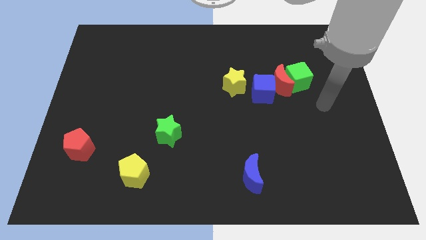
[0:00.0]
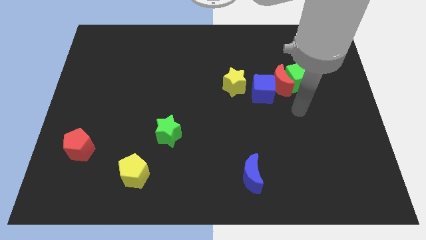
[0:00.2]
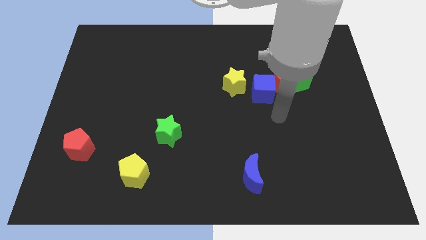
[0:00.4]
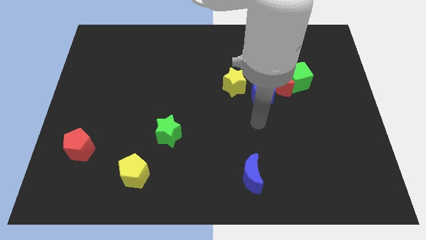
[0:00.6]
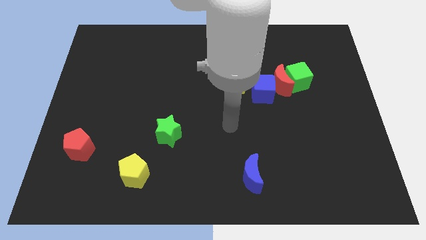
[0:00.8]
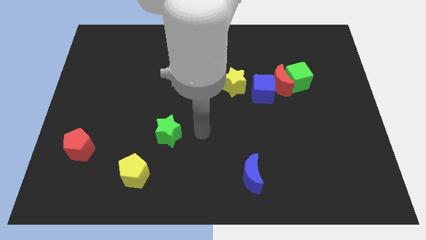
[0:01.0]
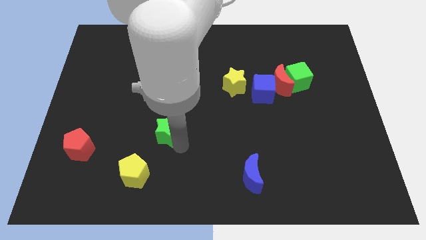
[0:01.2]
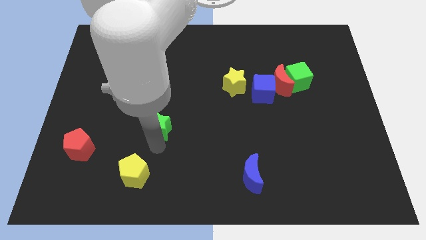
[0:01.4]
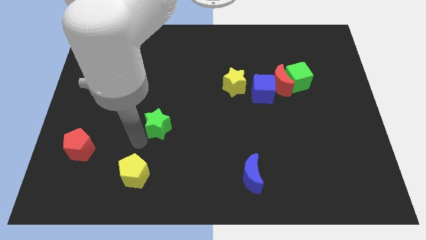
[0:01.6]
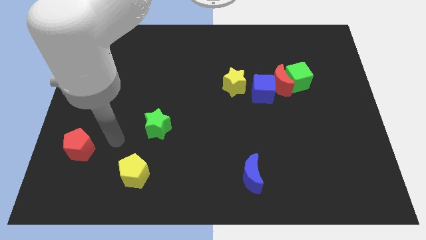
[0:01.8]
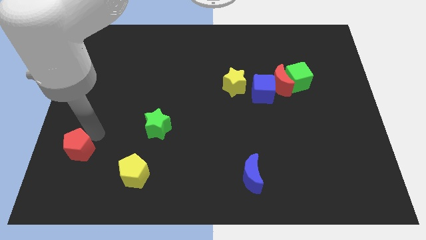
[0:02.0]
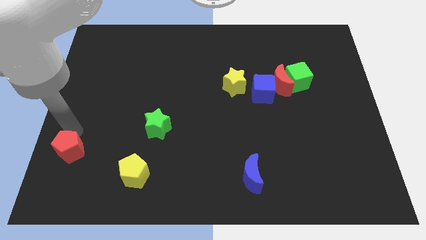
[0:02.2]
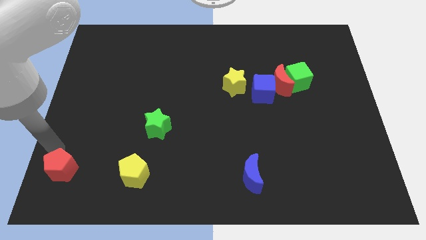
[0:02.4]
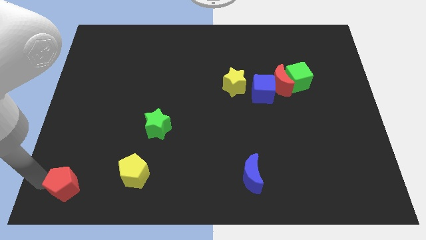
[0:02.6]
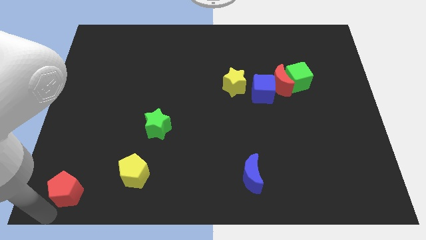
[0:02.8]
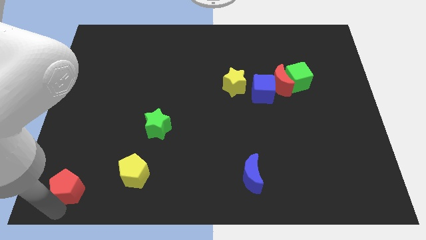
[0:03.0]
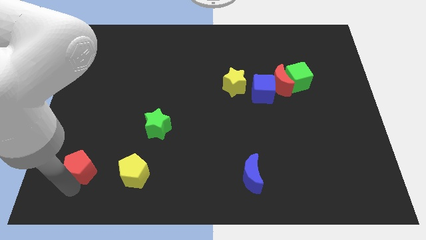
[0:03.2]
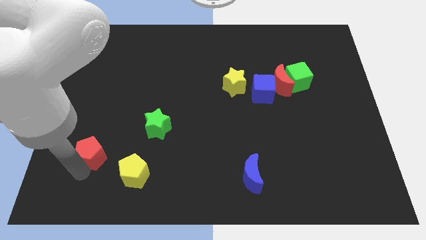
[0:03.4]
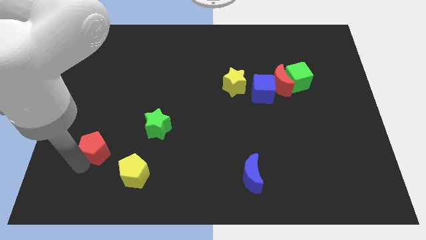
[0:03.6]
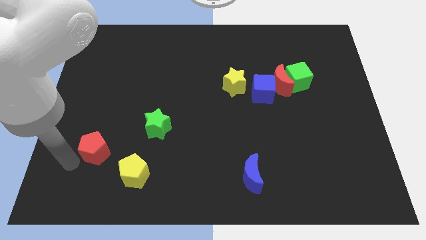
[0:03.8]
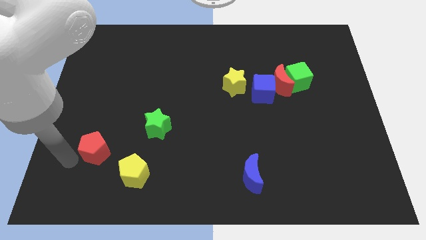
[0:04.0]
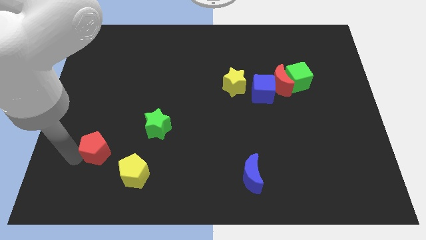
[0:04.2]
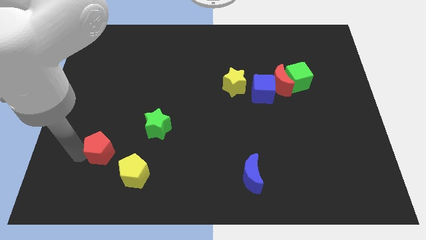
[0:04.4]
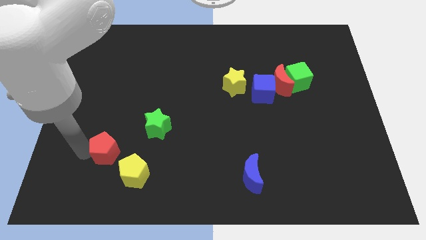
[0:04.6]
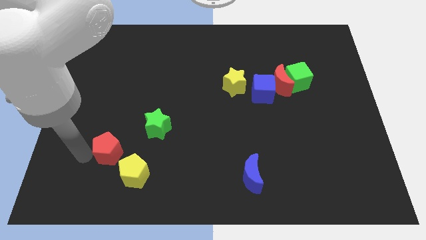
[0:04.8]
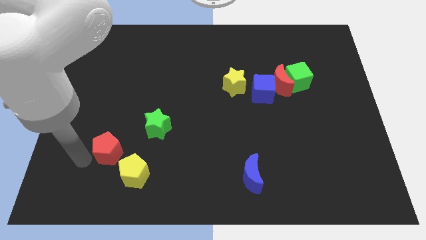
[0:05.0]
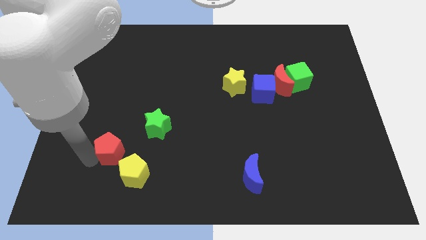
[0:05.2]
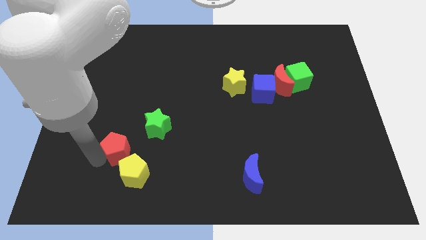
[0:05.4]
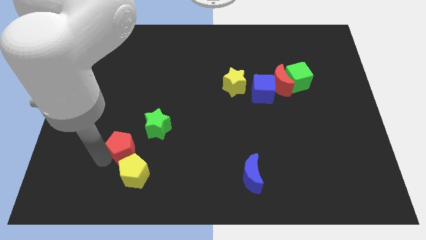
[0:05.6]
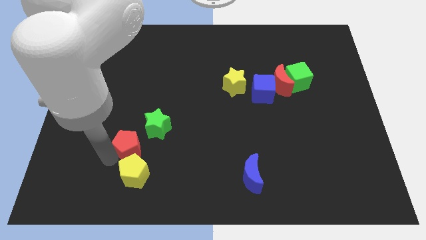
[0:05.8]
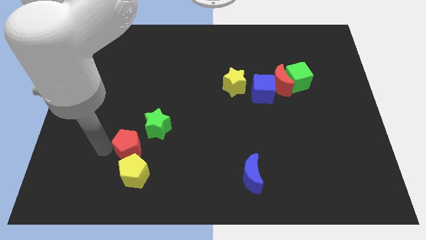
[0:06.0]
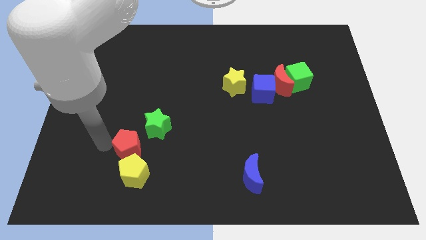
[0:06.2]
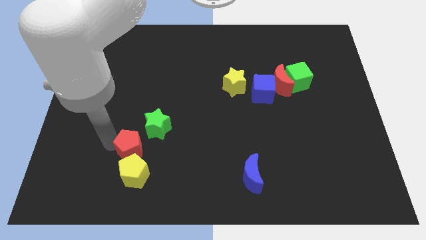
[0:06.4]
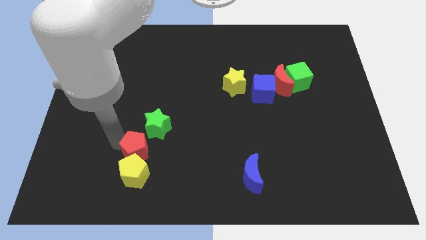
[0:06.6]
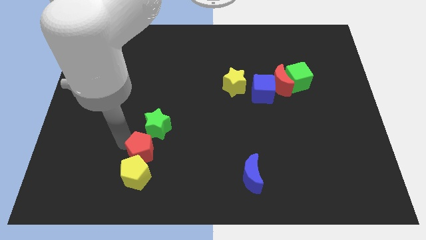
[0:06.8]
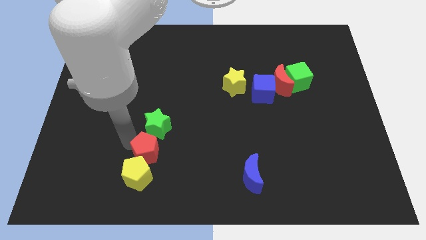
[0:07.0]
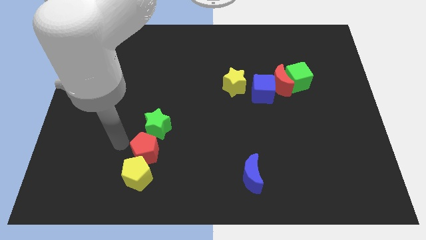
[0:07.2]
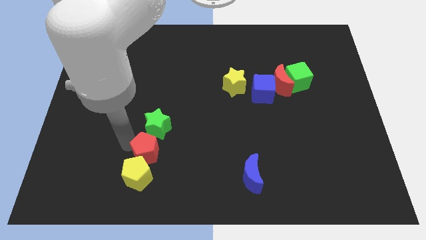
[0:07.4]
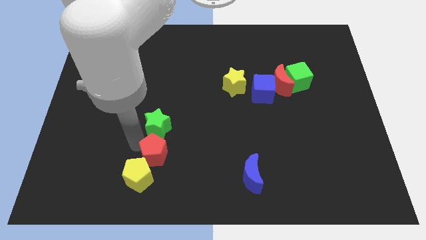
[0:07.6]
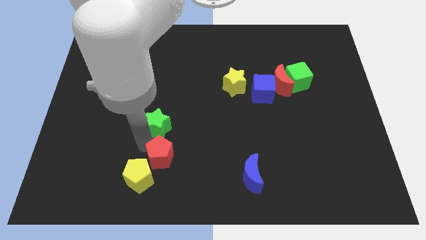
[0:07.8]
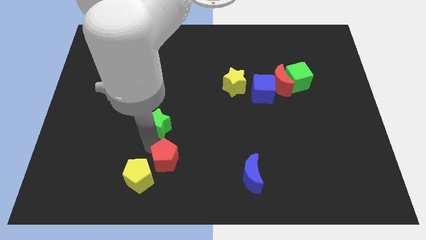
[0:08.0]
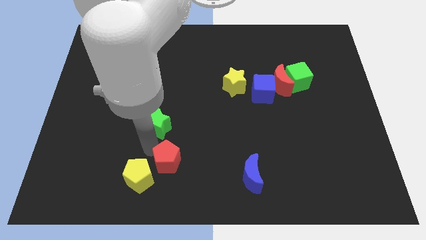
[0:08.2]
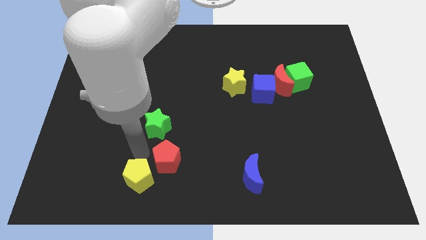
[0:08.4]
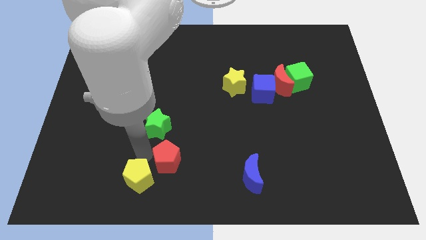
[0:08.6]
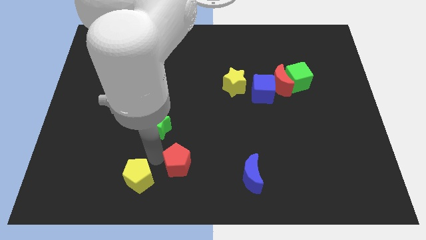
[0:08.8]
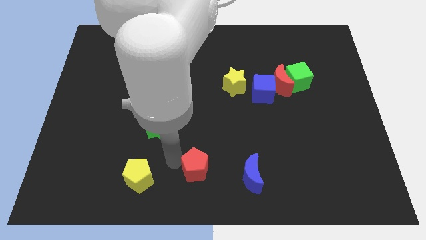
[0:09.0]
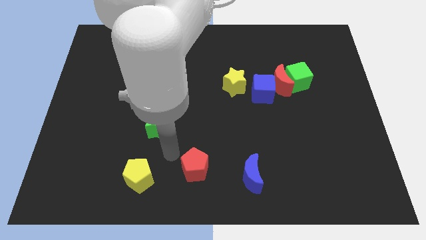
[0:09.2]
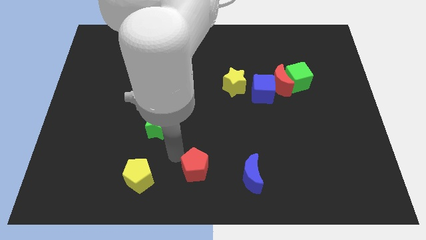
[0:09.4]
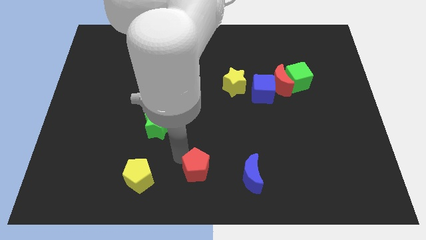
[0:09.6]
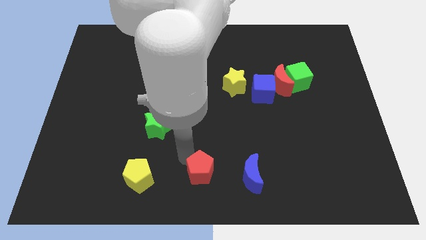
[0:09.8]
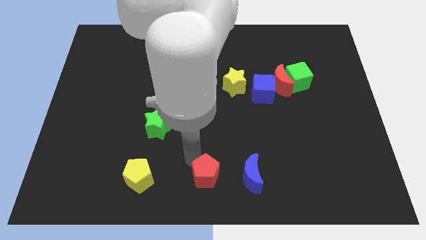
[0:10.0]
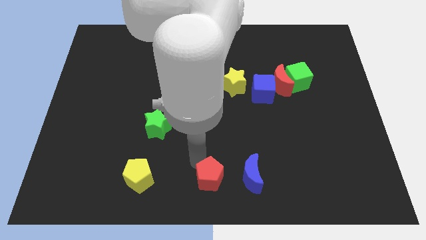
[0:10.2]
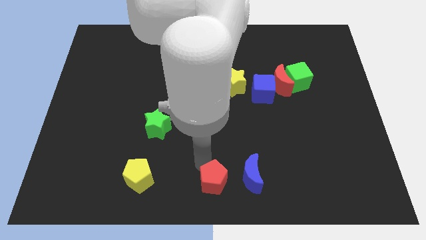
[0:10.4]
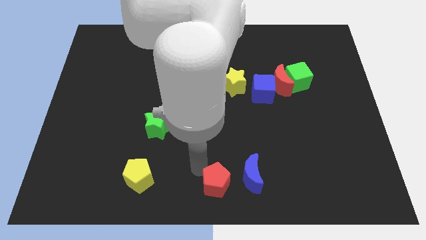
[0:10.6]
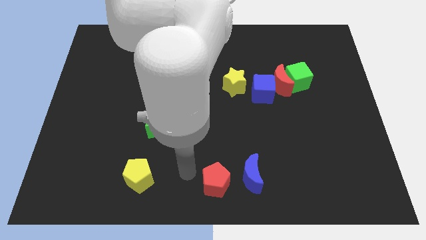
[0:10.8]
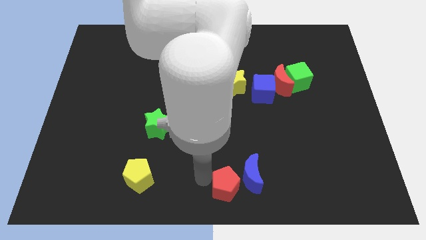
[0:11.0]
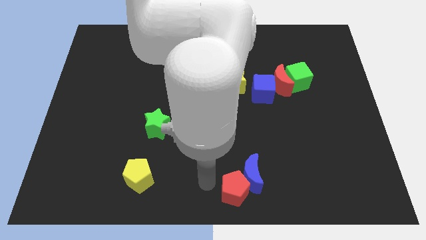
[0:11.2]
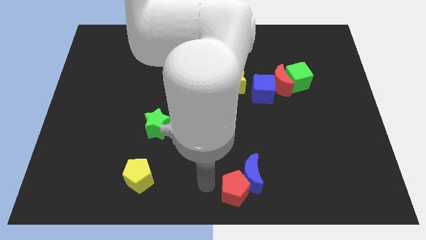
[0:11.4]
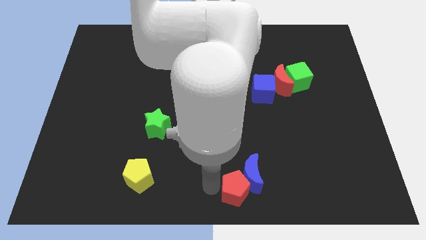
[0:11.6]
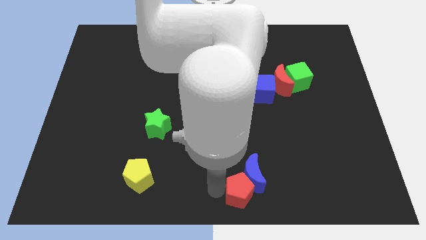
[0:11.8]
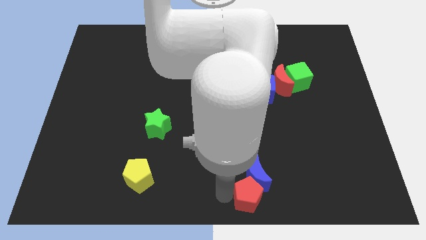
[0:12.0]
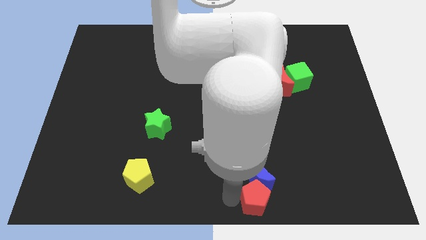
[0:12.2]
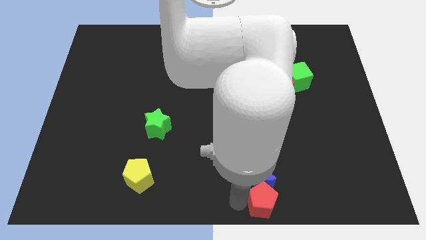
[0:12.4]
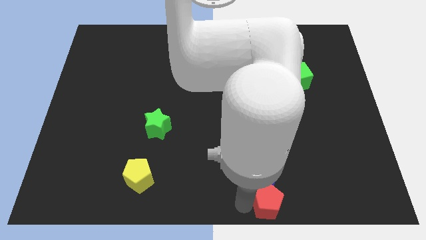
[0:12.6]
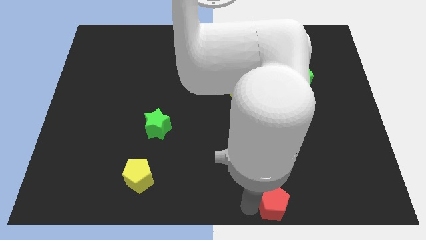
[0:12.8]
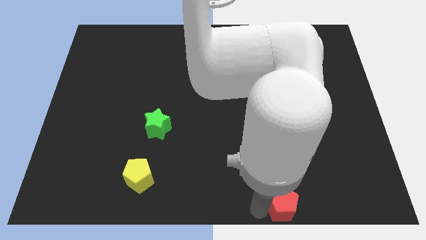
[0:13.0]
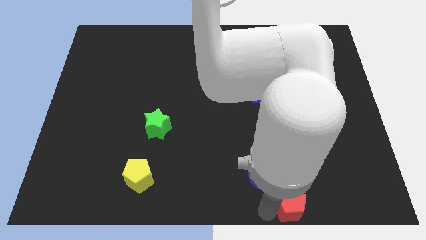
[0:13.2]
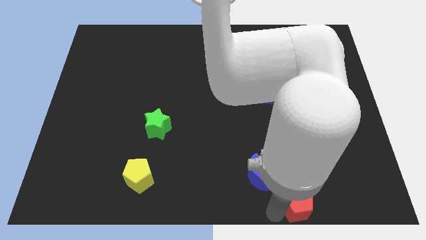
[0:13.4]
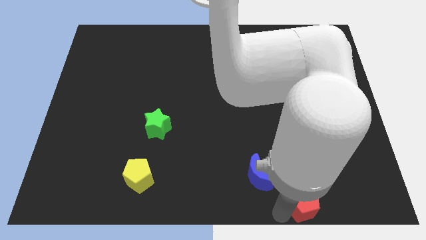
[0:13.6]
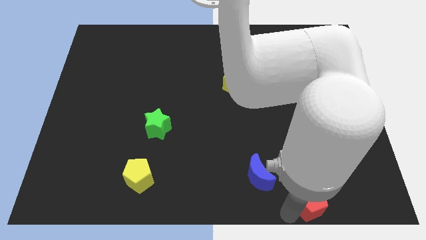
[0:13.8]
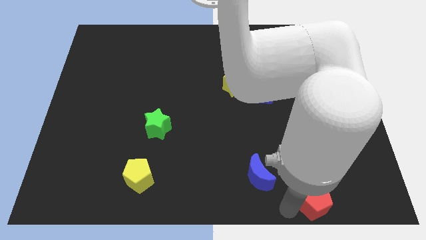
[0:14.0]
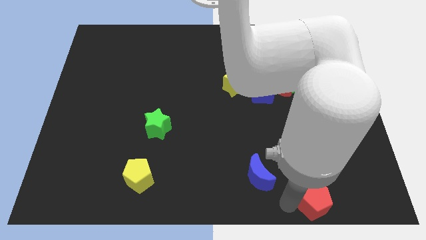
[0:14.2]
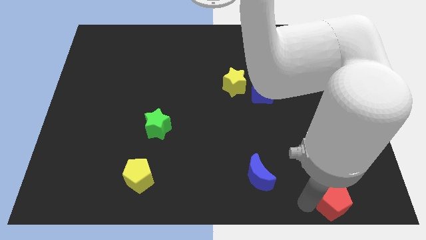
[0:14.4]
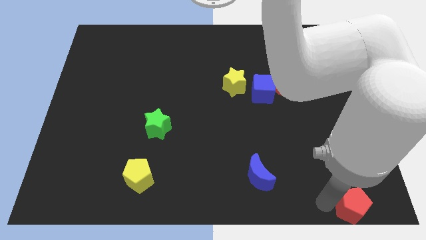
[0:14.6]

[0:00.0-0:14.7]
slide the red pentagon to the bottom right
